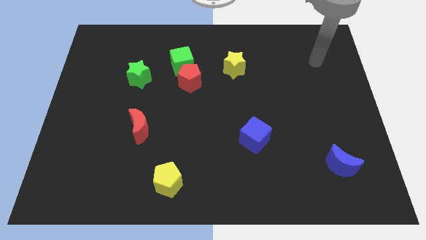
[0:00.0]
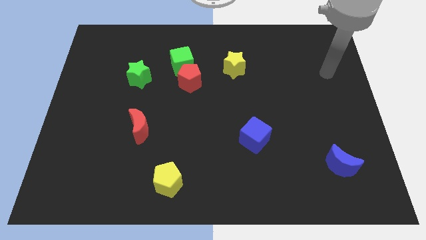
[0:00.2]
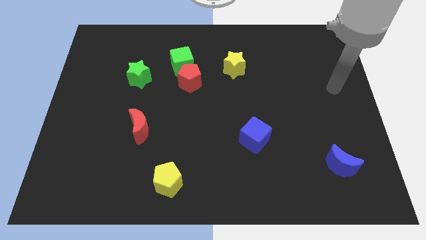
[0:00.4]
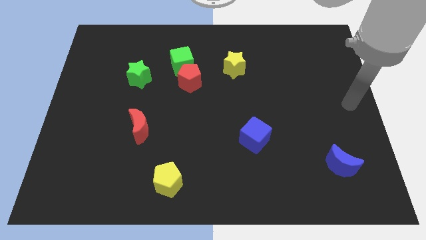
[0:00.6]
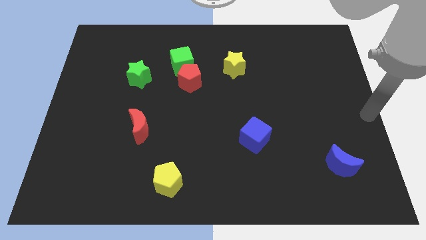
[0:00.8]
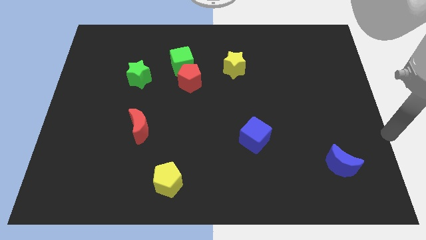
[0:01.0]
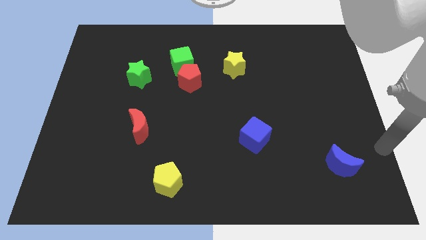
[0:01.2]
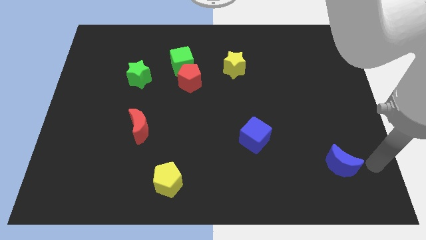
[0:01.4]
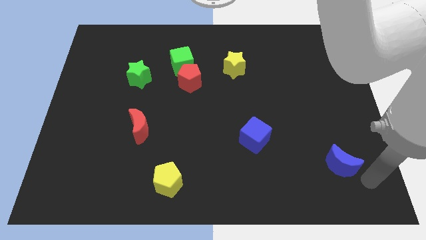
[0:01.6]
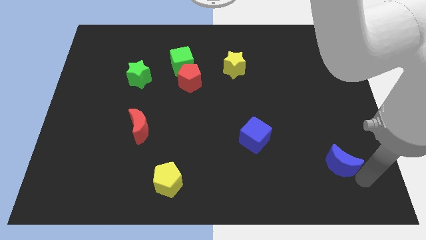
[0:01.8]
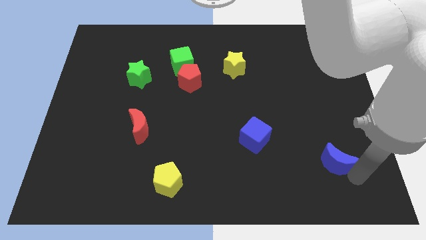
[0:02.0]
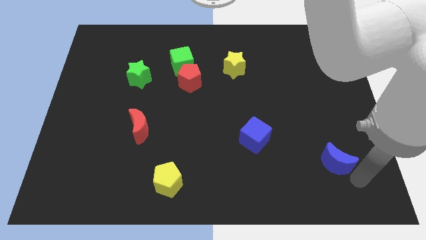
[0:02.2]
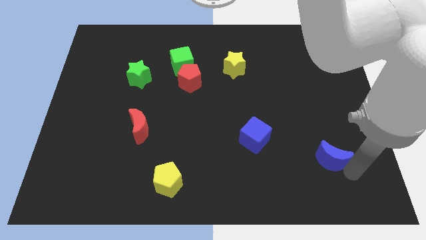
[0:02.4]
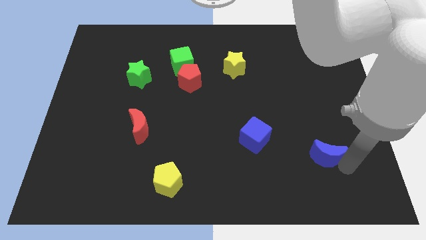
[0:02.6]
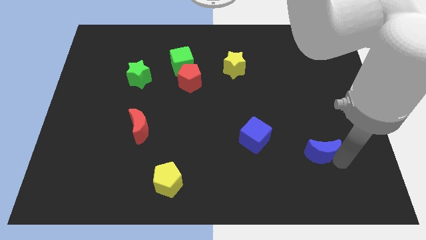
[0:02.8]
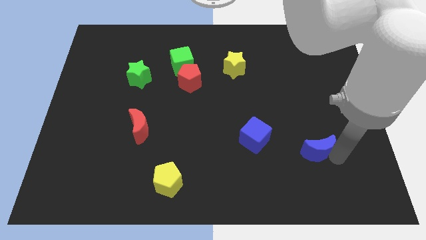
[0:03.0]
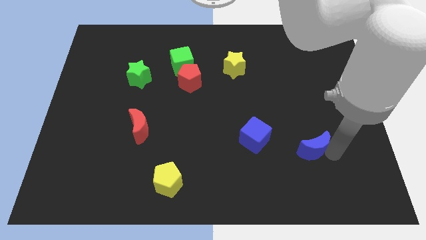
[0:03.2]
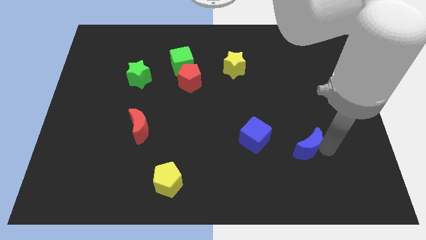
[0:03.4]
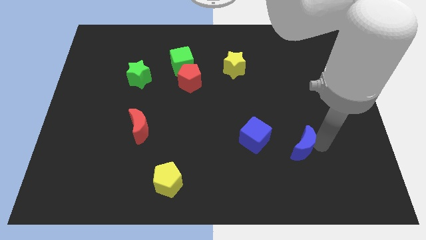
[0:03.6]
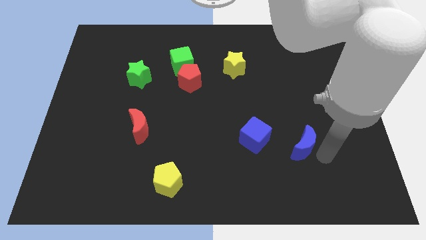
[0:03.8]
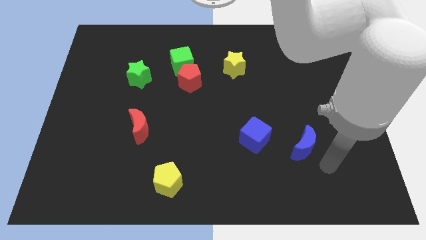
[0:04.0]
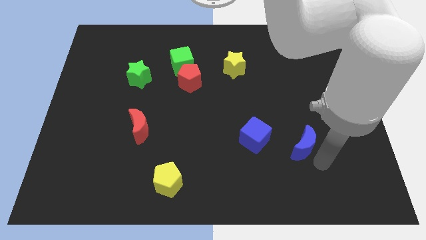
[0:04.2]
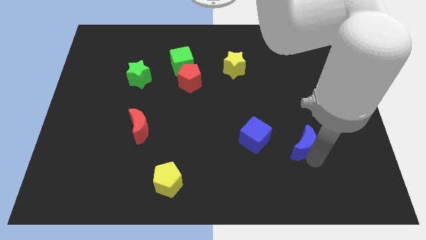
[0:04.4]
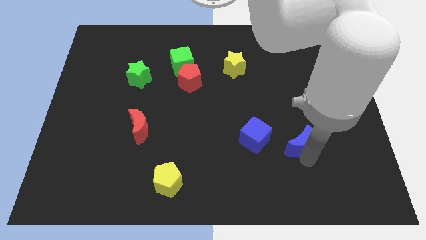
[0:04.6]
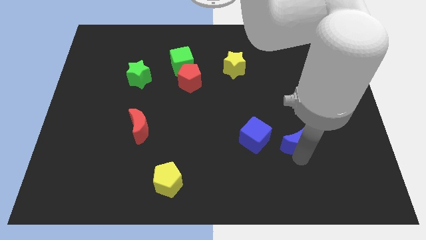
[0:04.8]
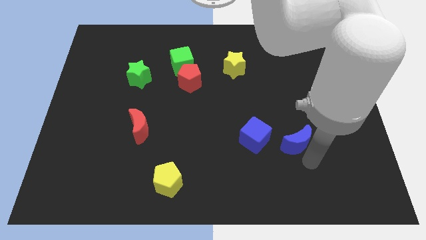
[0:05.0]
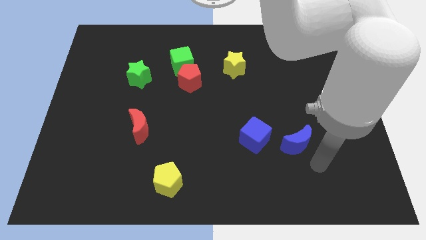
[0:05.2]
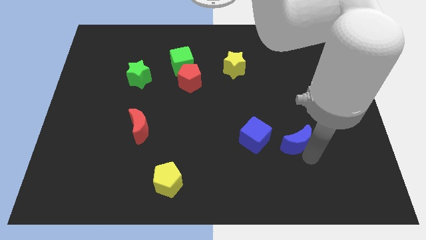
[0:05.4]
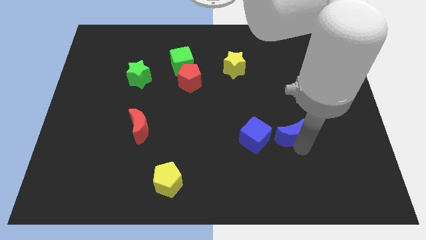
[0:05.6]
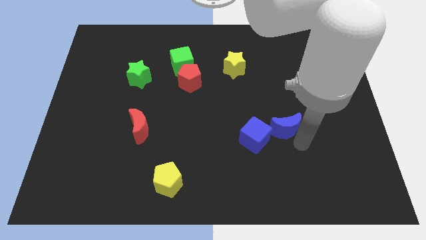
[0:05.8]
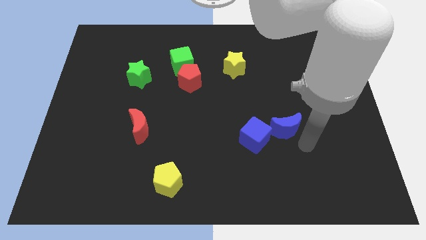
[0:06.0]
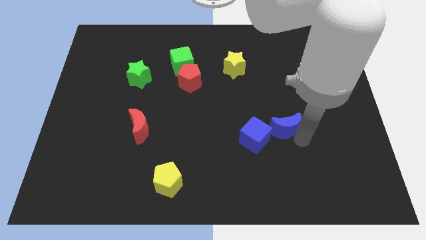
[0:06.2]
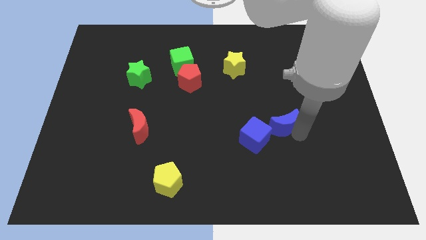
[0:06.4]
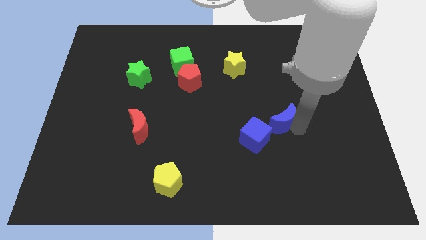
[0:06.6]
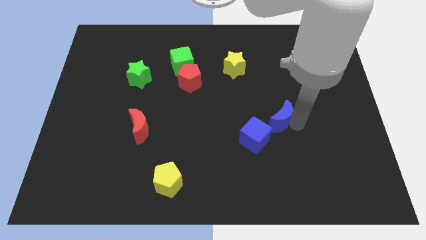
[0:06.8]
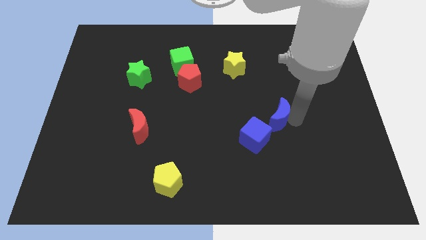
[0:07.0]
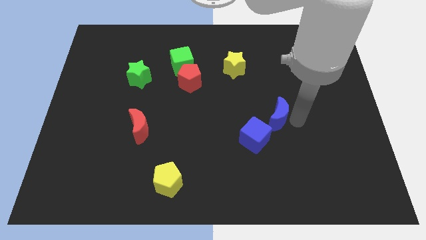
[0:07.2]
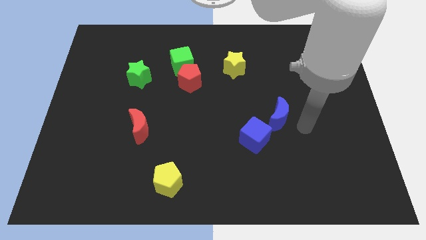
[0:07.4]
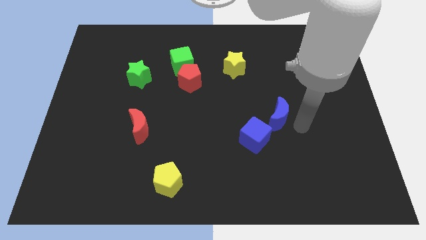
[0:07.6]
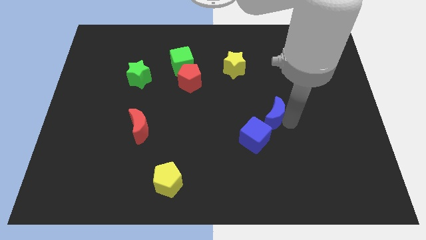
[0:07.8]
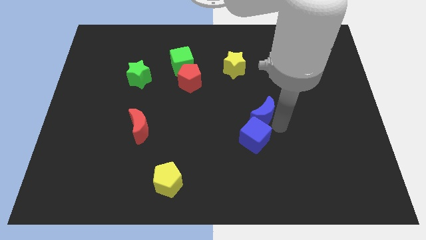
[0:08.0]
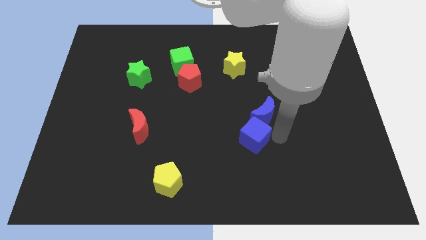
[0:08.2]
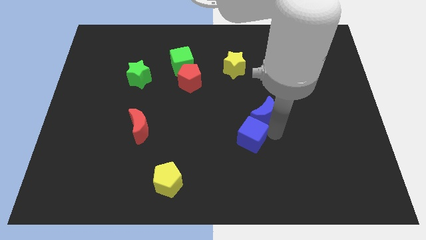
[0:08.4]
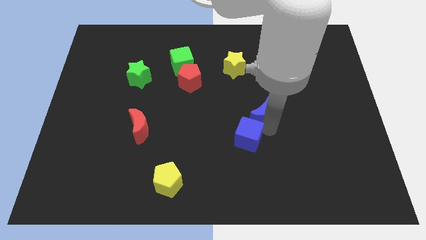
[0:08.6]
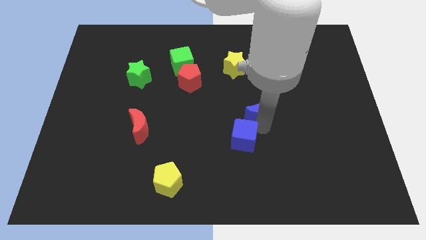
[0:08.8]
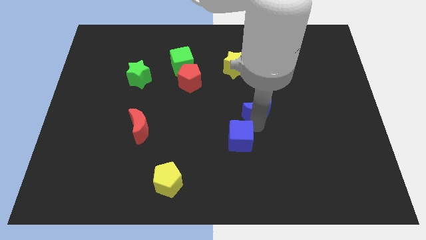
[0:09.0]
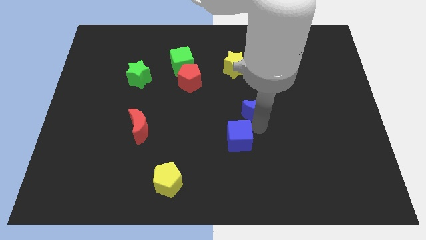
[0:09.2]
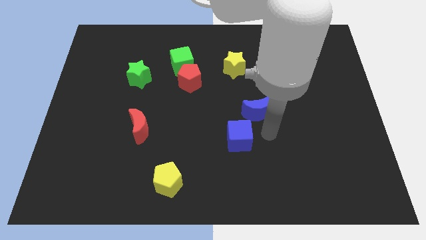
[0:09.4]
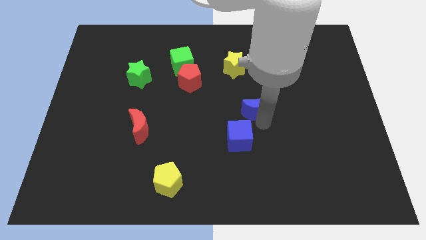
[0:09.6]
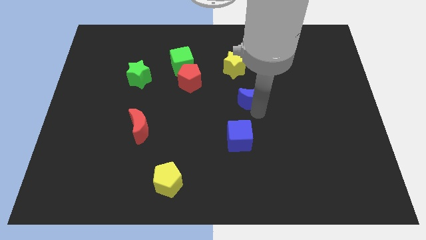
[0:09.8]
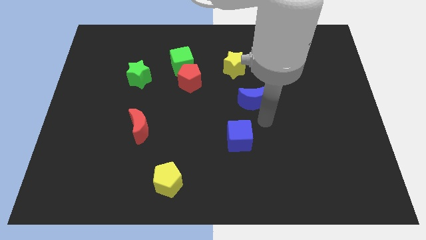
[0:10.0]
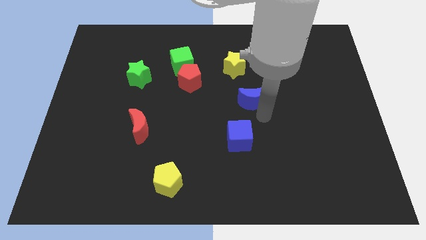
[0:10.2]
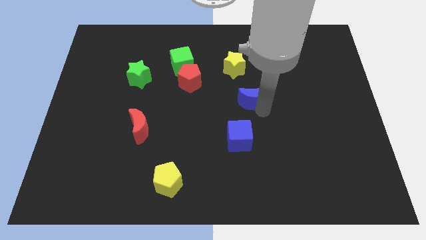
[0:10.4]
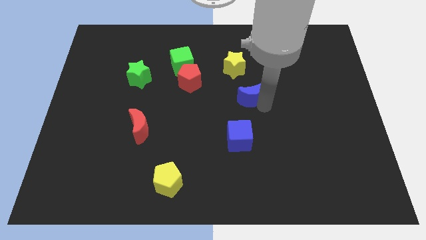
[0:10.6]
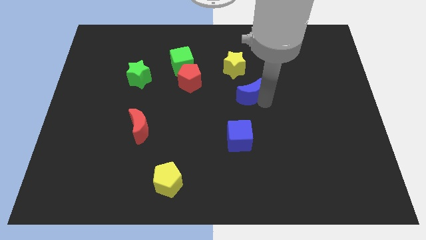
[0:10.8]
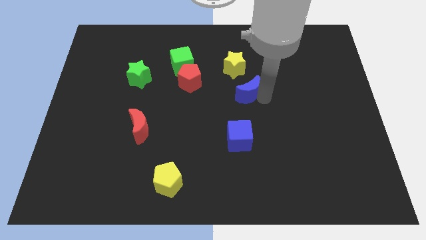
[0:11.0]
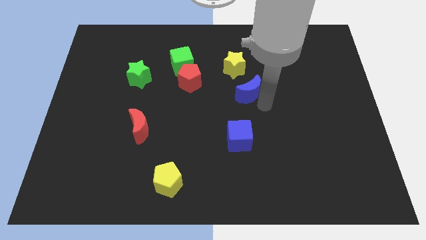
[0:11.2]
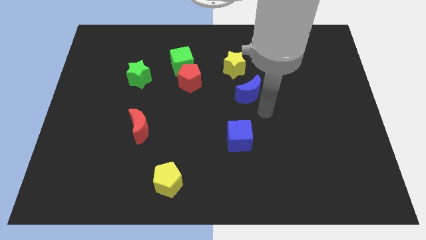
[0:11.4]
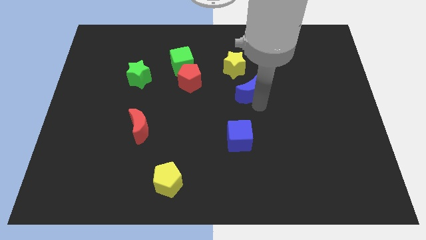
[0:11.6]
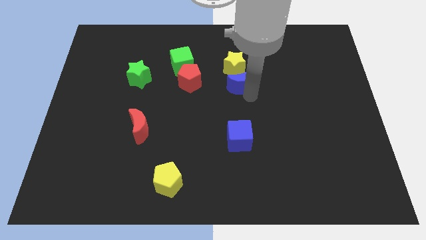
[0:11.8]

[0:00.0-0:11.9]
push the blue moon close to the yellow star

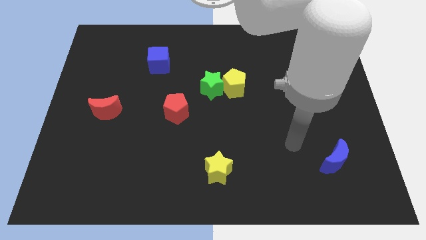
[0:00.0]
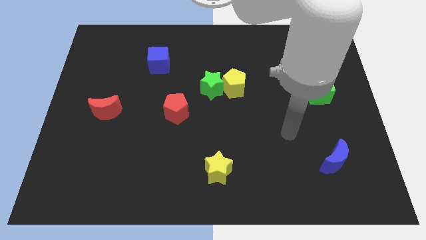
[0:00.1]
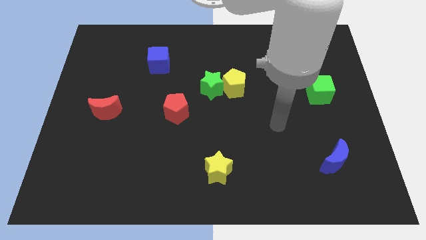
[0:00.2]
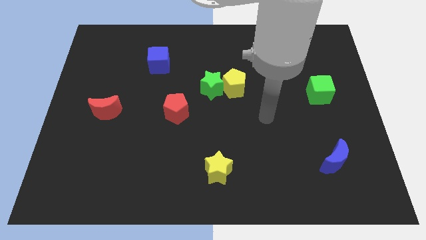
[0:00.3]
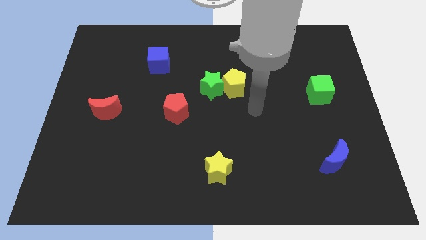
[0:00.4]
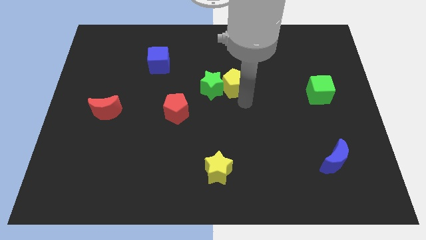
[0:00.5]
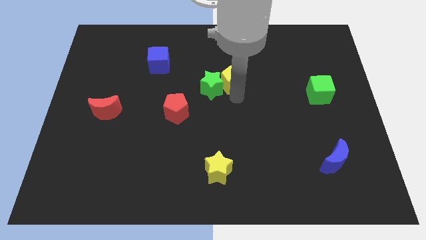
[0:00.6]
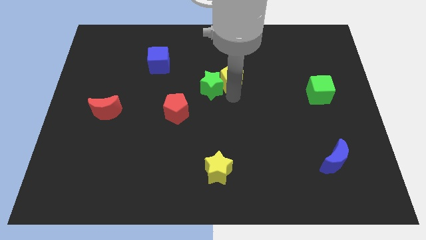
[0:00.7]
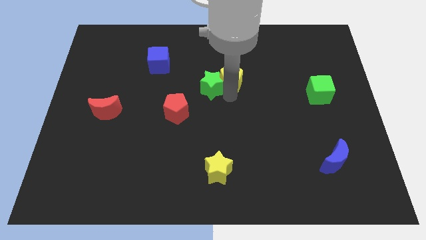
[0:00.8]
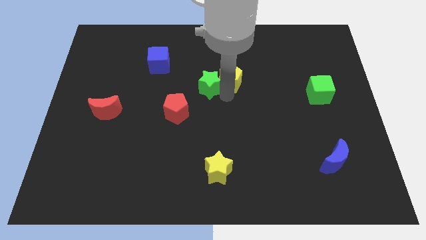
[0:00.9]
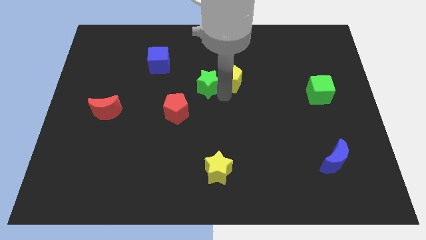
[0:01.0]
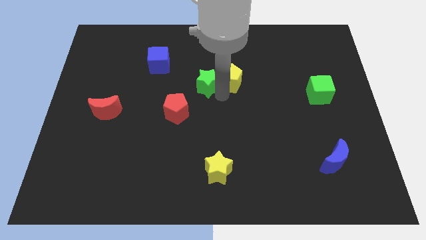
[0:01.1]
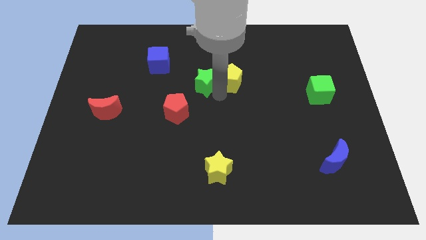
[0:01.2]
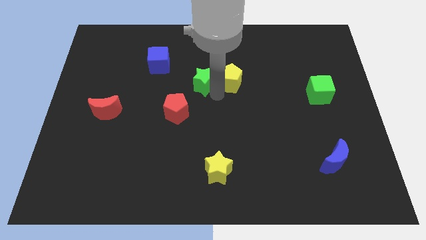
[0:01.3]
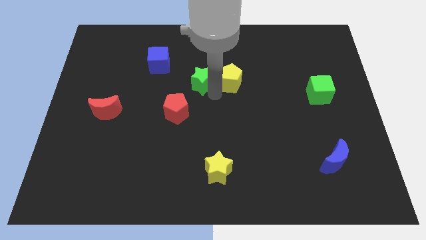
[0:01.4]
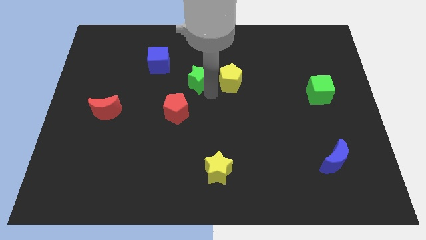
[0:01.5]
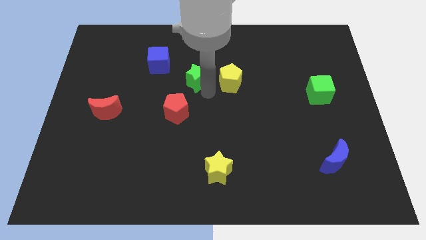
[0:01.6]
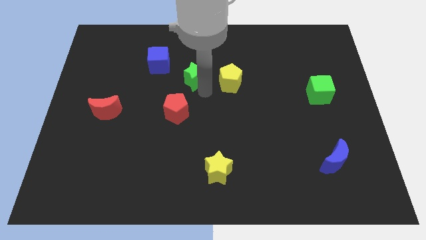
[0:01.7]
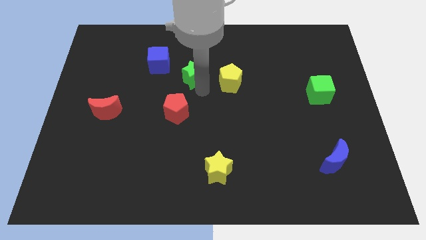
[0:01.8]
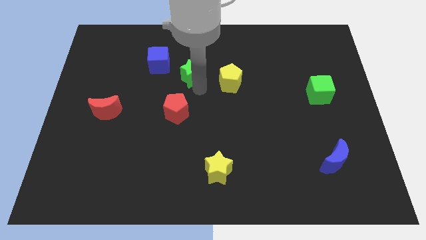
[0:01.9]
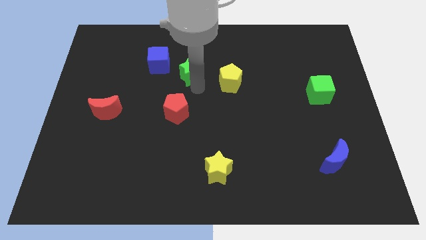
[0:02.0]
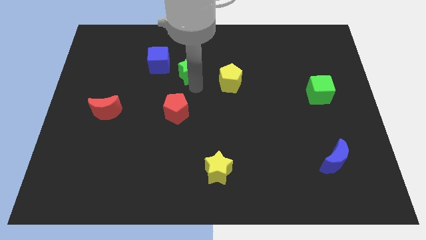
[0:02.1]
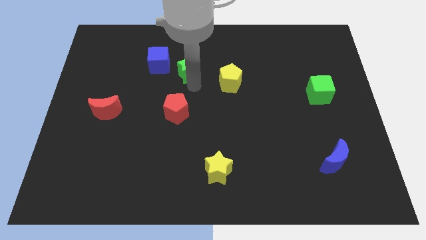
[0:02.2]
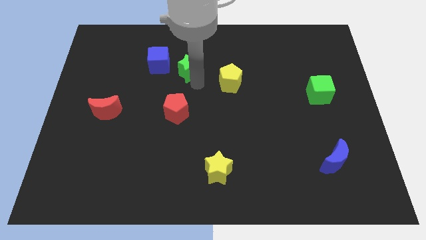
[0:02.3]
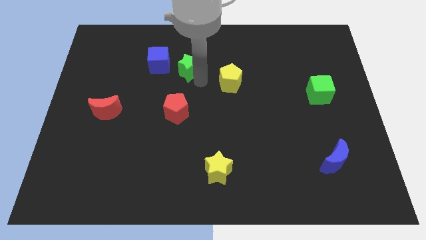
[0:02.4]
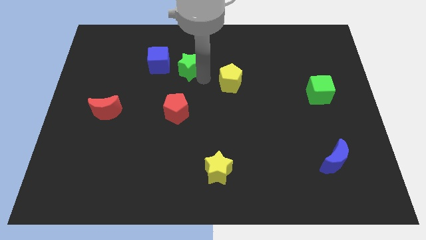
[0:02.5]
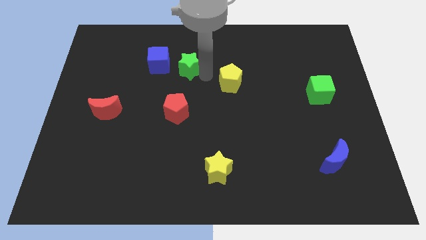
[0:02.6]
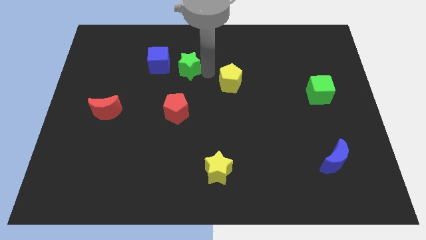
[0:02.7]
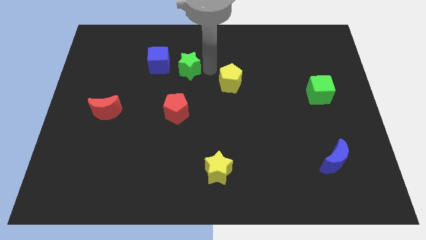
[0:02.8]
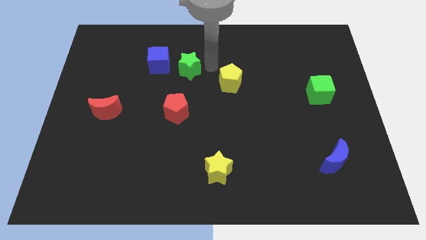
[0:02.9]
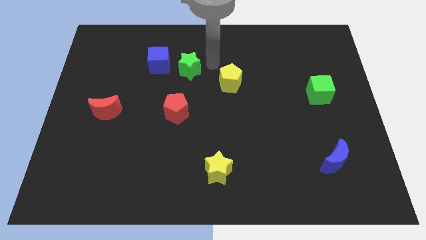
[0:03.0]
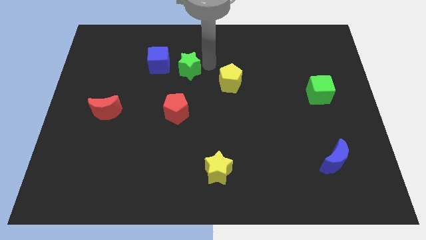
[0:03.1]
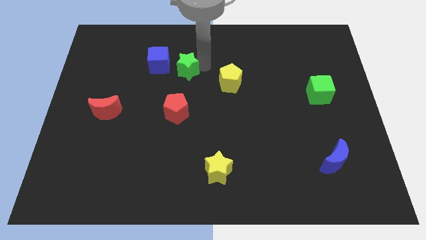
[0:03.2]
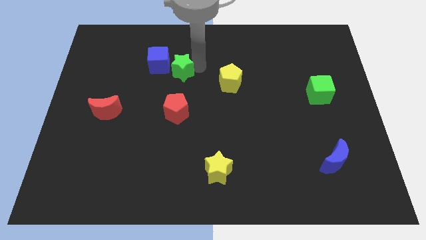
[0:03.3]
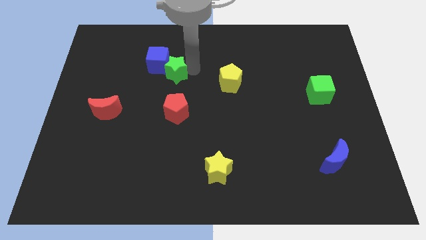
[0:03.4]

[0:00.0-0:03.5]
slide the green star to the blue cube
